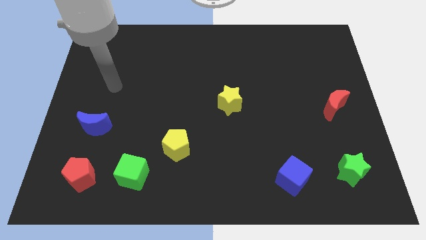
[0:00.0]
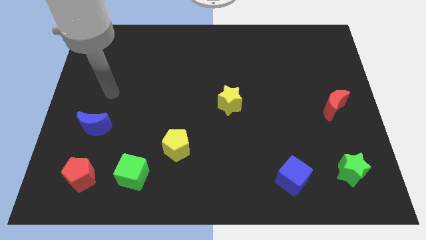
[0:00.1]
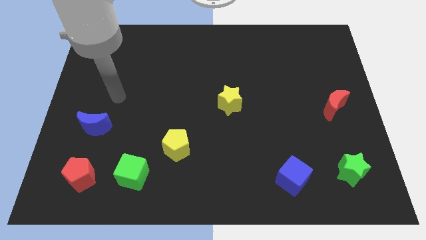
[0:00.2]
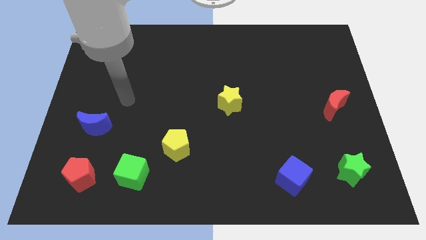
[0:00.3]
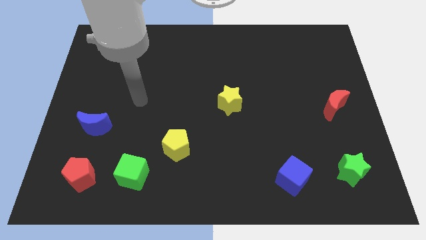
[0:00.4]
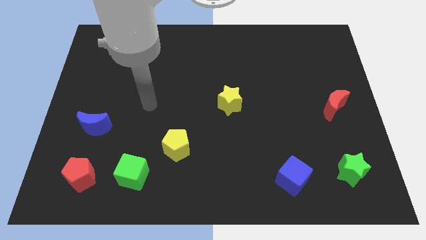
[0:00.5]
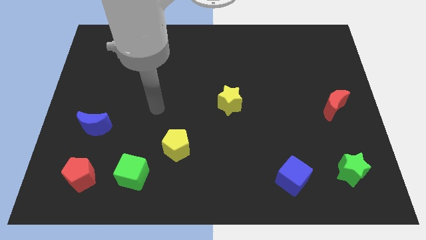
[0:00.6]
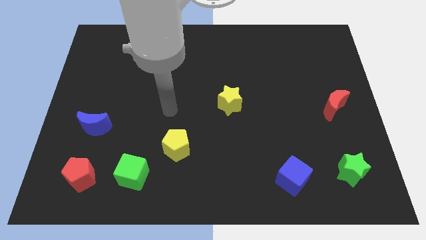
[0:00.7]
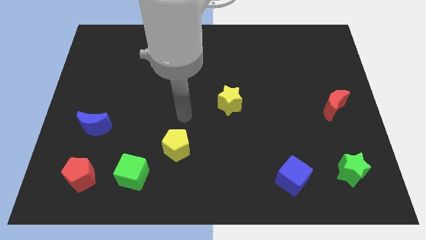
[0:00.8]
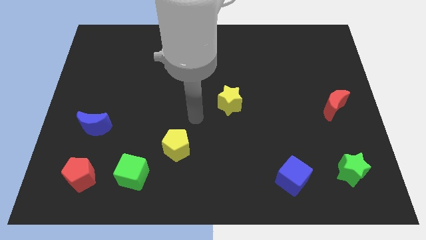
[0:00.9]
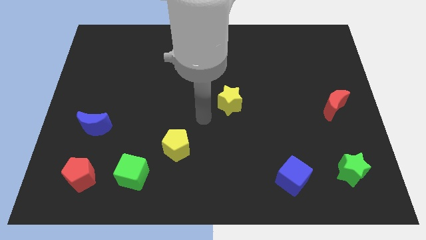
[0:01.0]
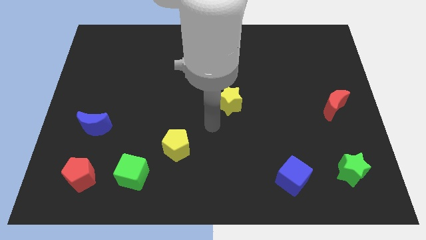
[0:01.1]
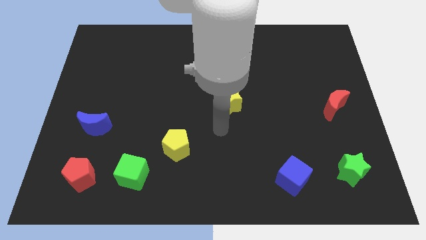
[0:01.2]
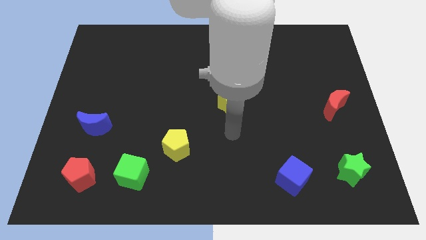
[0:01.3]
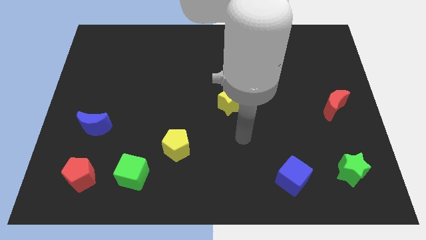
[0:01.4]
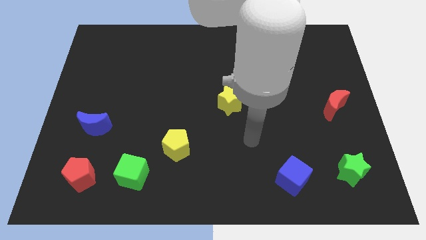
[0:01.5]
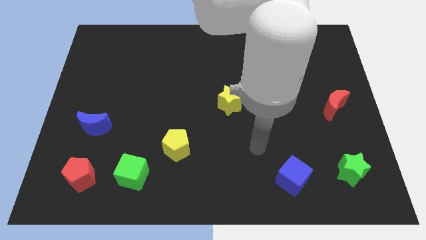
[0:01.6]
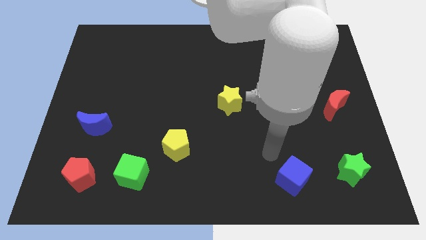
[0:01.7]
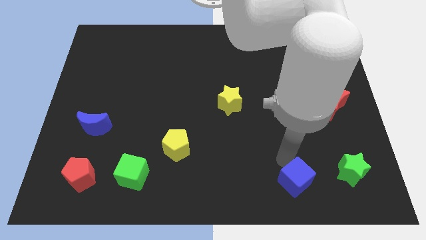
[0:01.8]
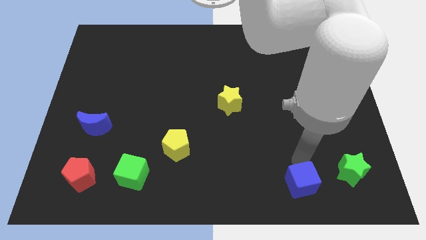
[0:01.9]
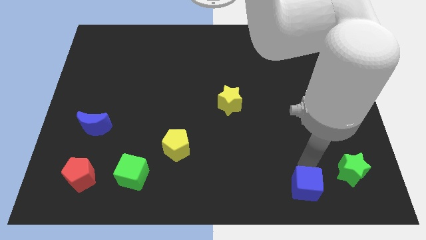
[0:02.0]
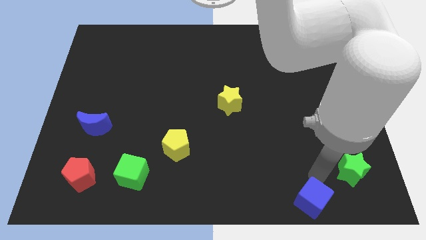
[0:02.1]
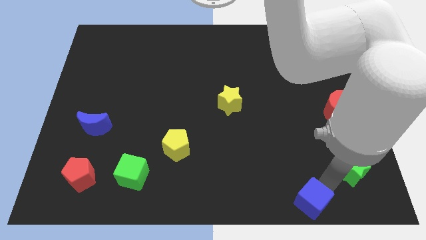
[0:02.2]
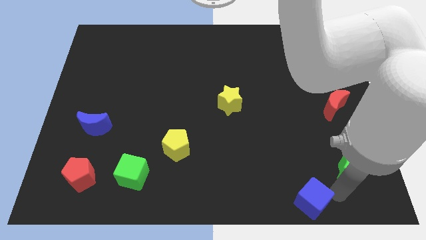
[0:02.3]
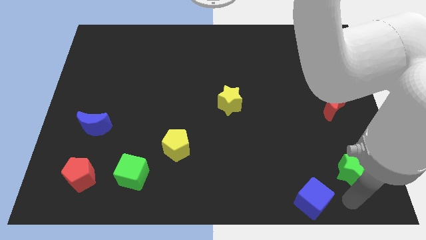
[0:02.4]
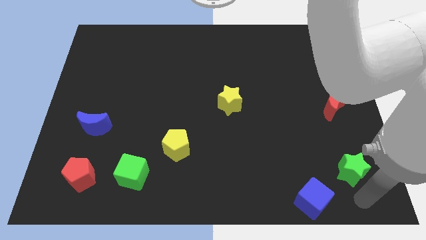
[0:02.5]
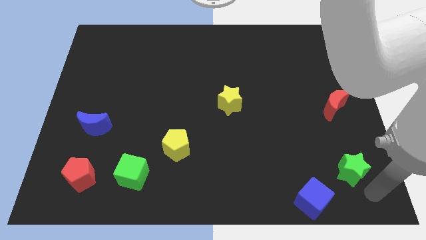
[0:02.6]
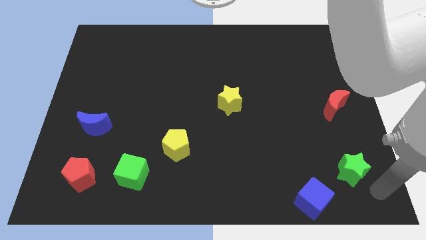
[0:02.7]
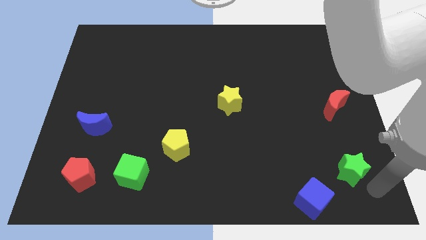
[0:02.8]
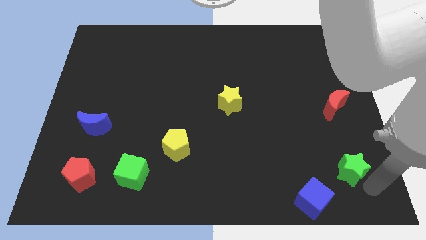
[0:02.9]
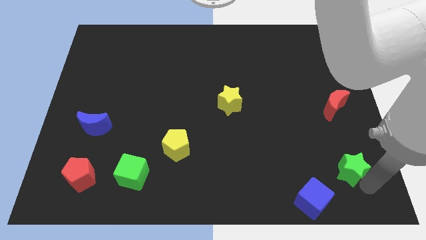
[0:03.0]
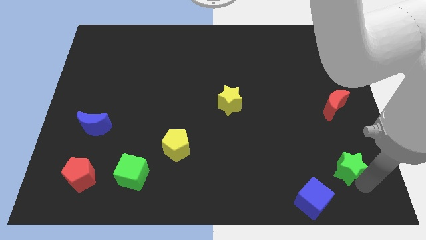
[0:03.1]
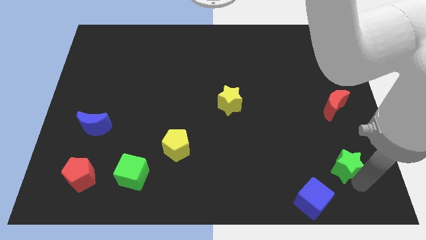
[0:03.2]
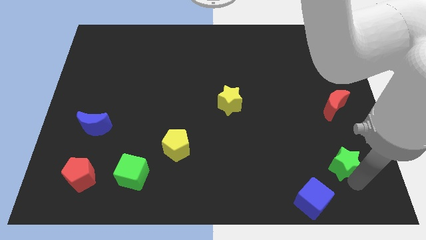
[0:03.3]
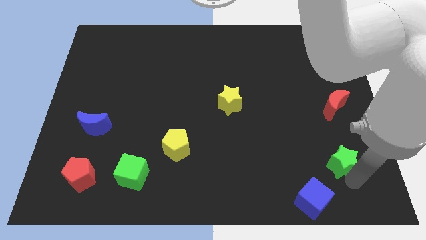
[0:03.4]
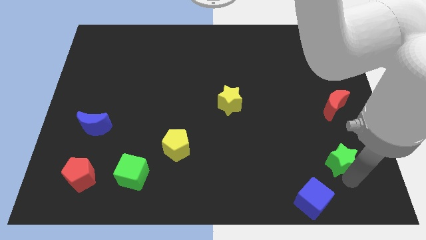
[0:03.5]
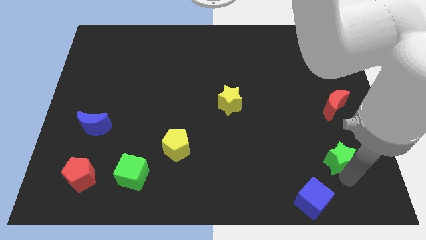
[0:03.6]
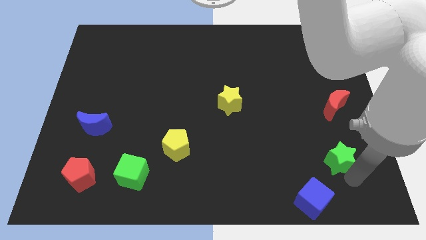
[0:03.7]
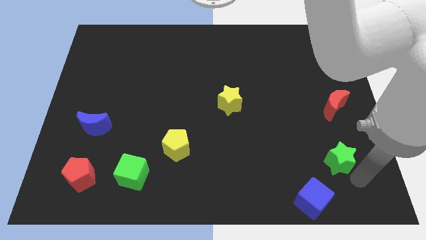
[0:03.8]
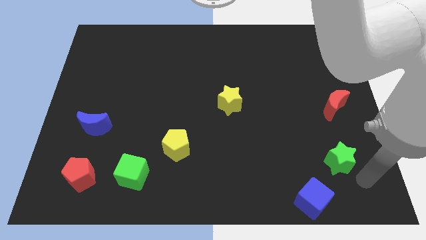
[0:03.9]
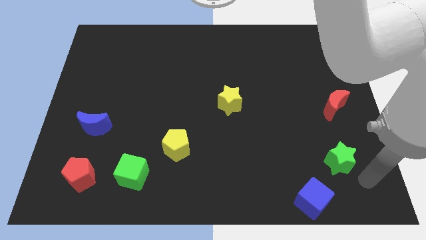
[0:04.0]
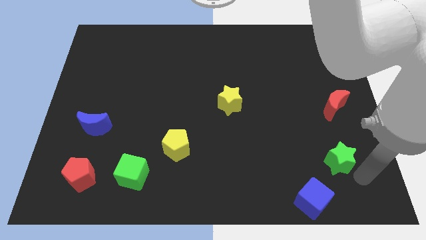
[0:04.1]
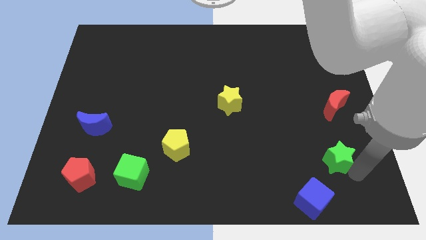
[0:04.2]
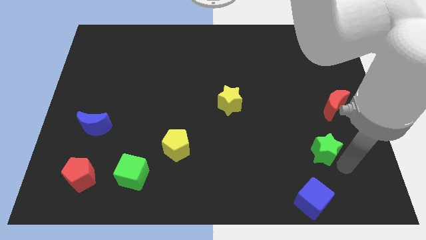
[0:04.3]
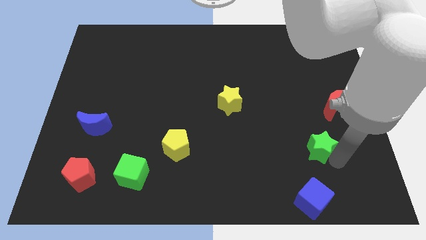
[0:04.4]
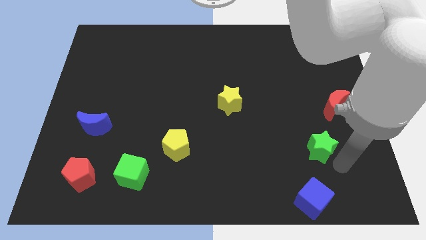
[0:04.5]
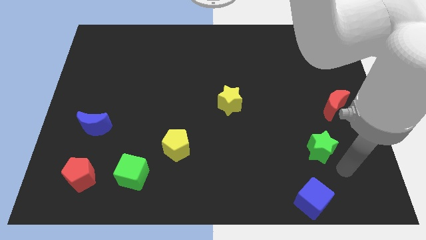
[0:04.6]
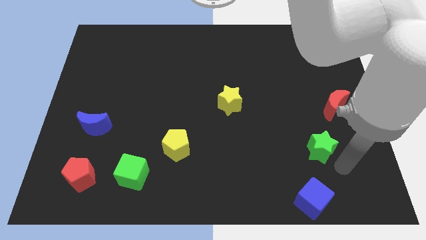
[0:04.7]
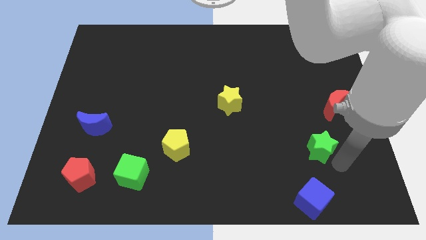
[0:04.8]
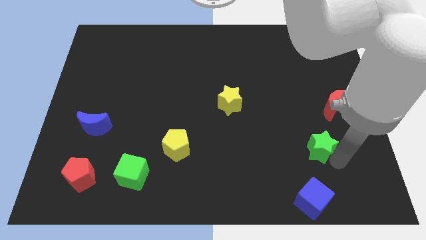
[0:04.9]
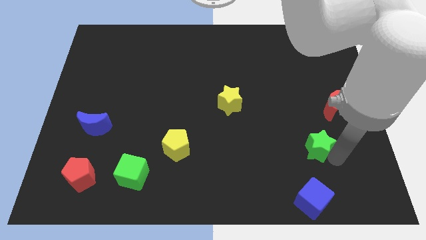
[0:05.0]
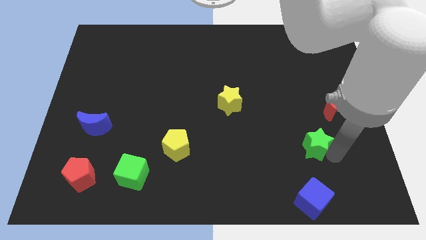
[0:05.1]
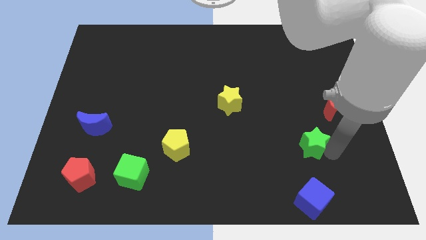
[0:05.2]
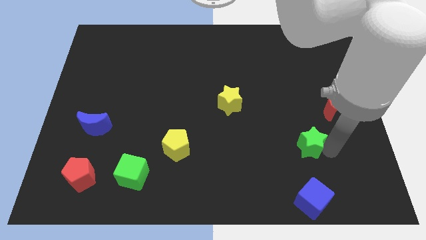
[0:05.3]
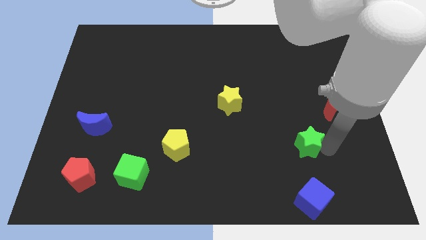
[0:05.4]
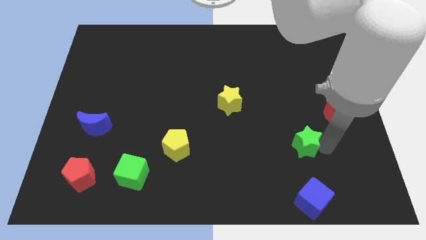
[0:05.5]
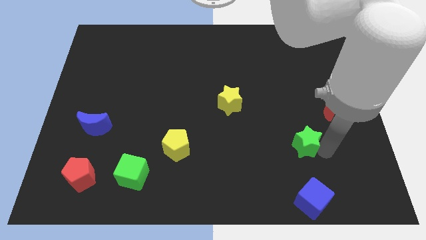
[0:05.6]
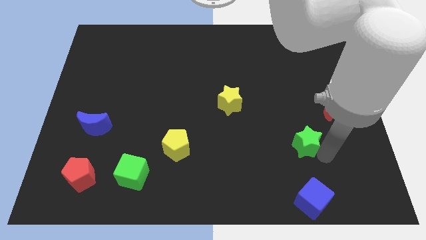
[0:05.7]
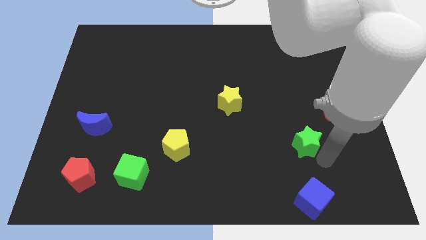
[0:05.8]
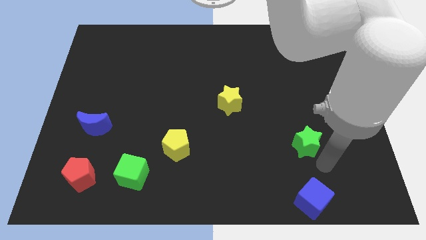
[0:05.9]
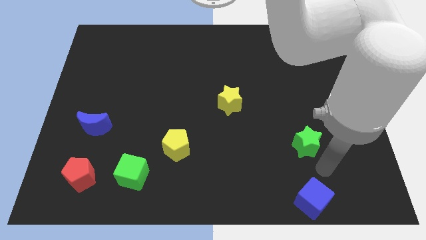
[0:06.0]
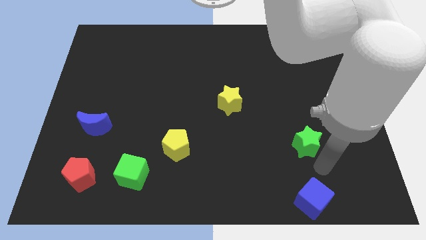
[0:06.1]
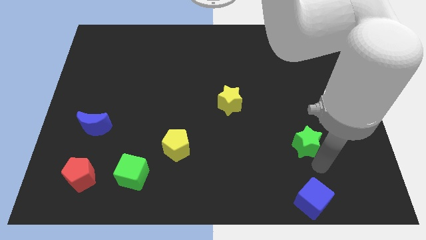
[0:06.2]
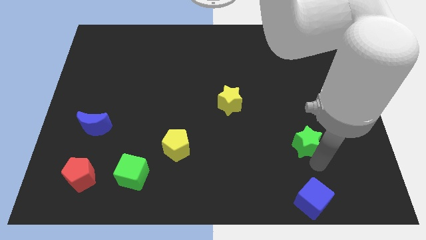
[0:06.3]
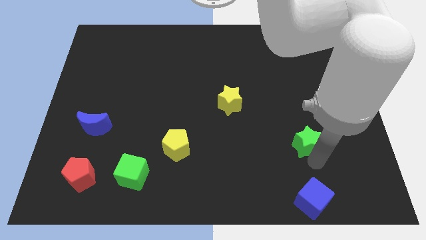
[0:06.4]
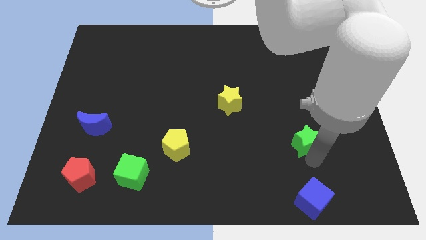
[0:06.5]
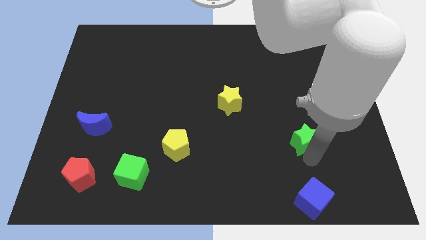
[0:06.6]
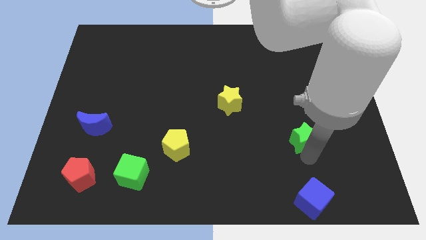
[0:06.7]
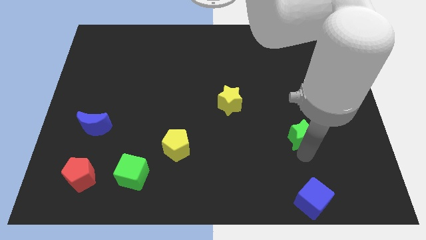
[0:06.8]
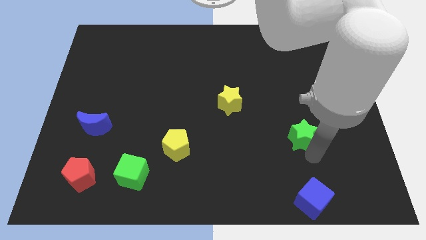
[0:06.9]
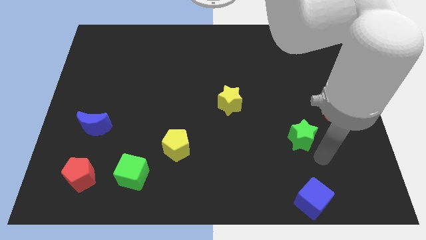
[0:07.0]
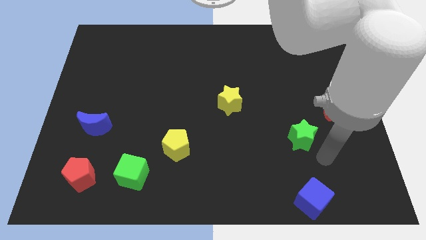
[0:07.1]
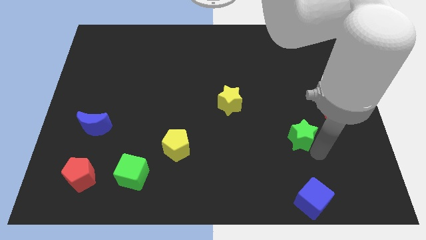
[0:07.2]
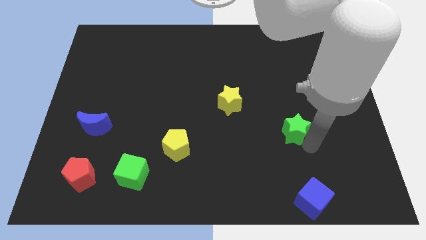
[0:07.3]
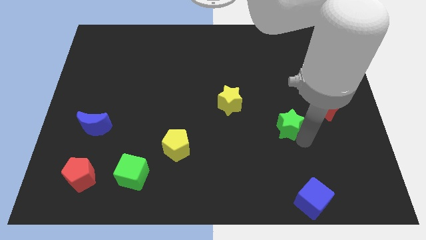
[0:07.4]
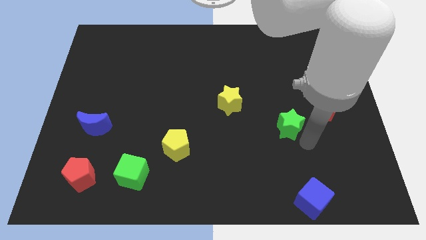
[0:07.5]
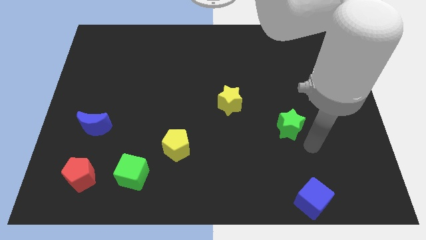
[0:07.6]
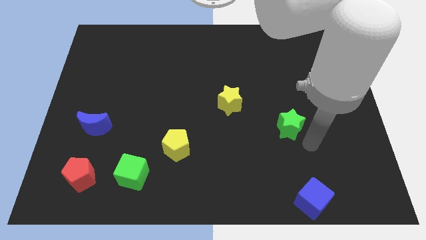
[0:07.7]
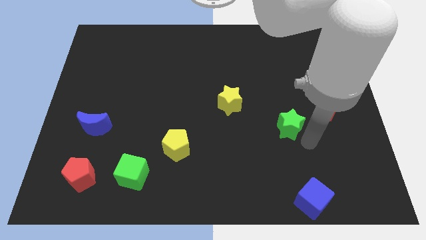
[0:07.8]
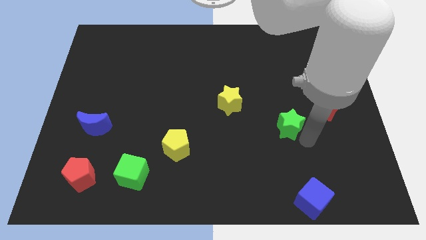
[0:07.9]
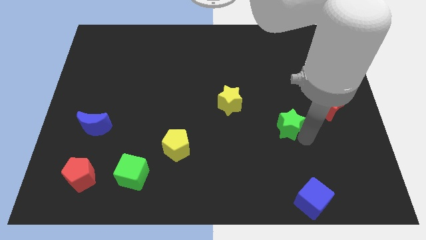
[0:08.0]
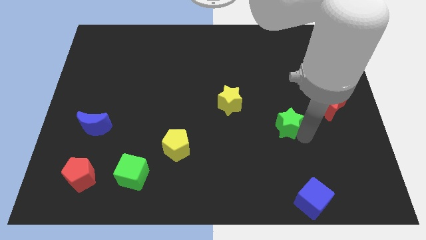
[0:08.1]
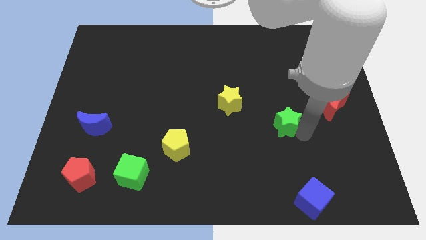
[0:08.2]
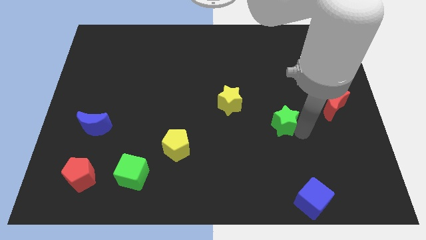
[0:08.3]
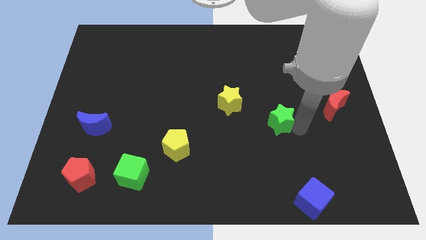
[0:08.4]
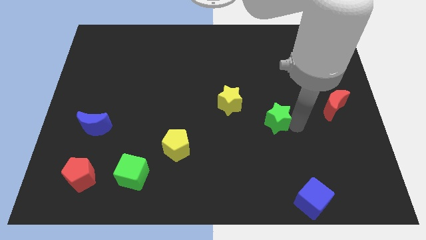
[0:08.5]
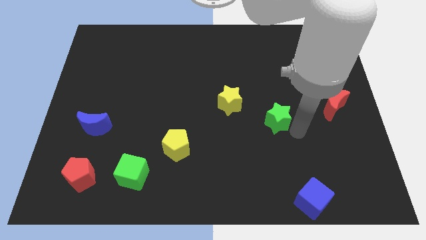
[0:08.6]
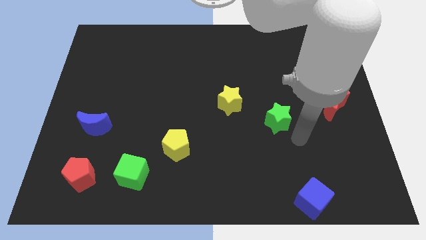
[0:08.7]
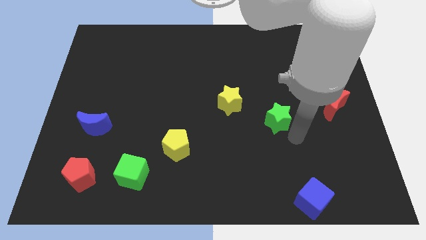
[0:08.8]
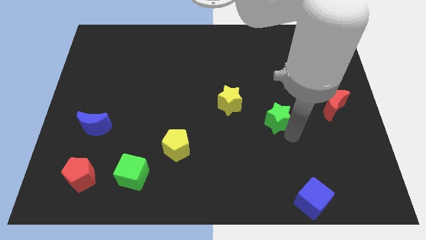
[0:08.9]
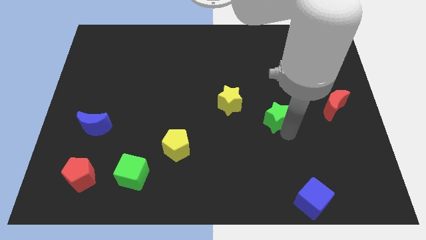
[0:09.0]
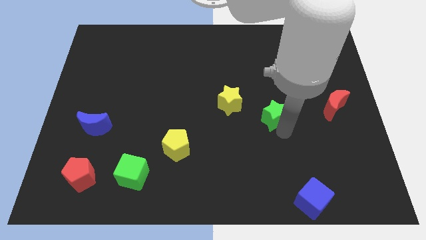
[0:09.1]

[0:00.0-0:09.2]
push the green star up and to the left
